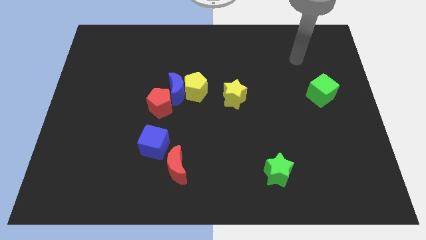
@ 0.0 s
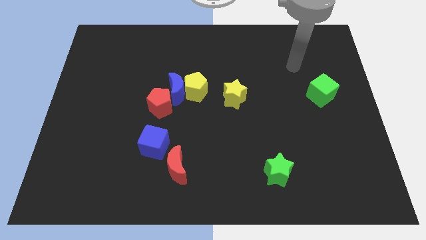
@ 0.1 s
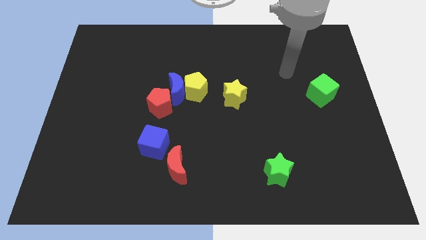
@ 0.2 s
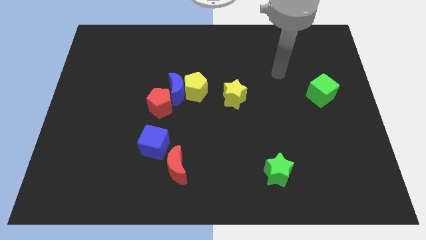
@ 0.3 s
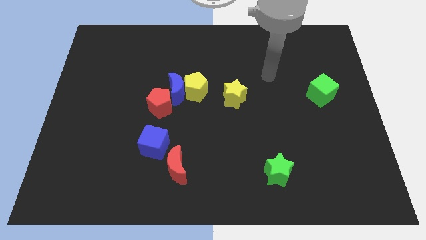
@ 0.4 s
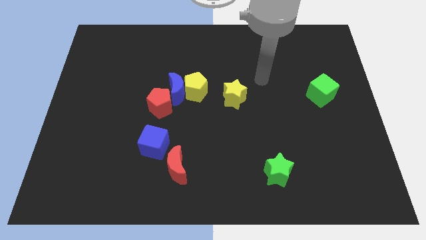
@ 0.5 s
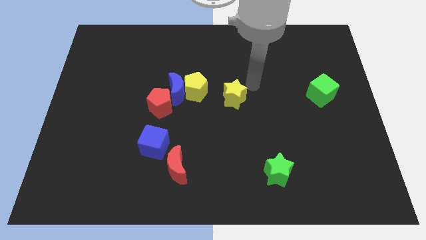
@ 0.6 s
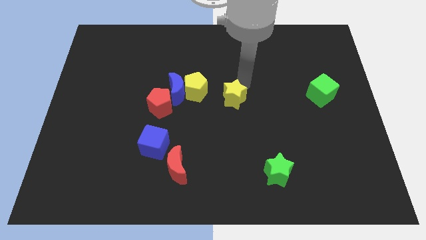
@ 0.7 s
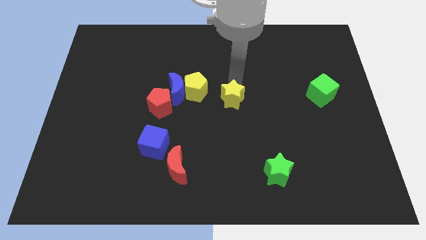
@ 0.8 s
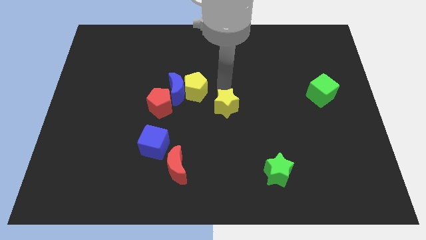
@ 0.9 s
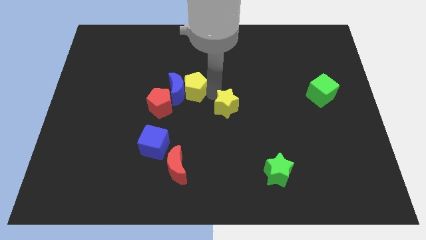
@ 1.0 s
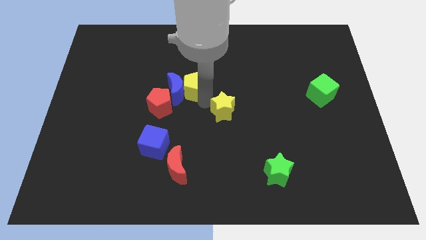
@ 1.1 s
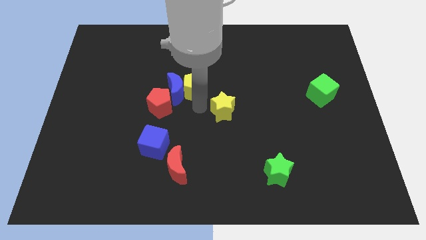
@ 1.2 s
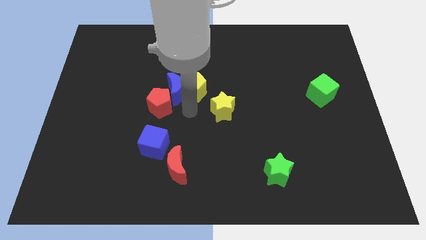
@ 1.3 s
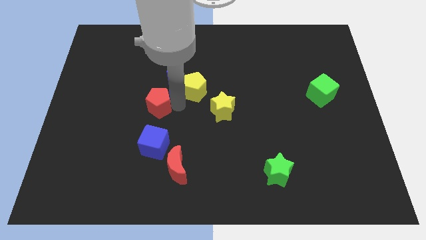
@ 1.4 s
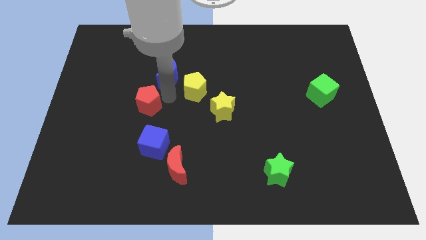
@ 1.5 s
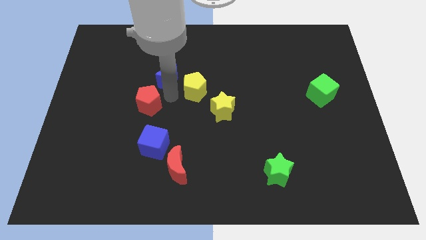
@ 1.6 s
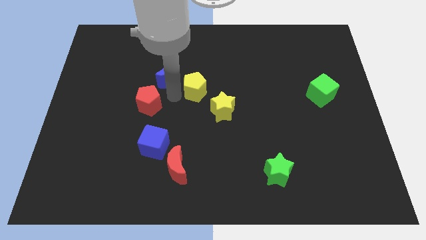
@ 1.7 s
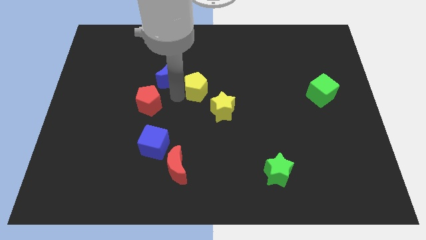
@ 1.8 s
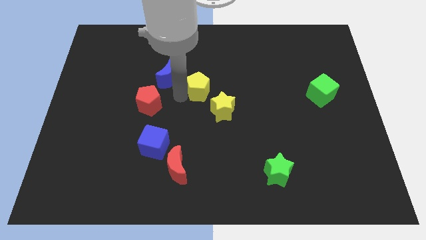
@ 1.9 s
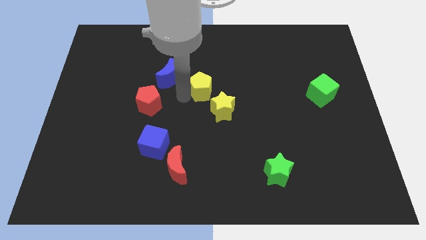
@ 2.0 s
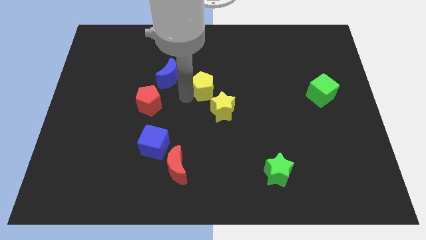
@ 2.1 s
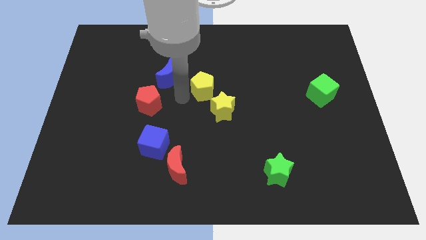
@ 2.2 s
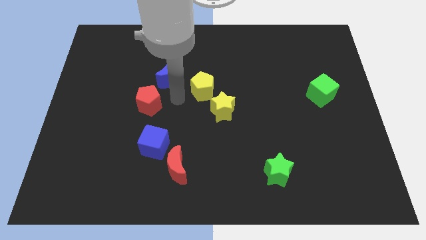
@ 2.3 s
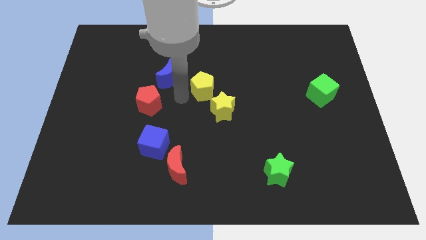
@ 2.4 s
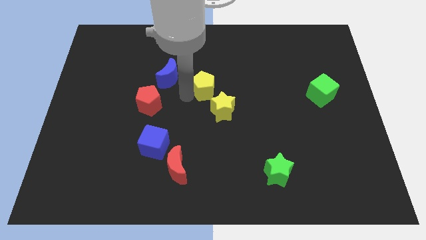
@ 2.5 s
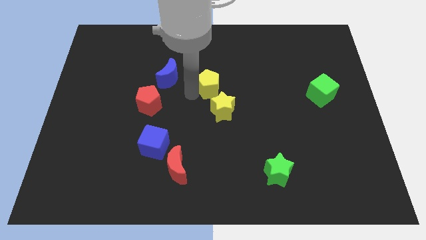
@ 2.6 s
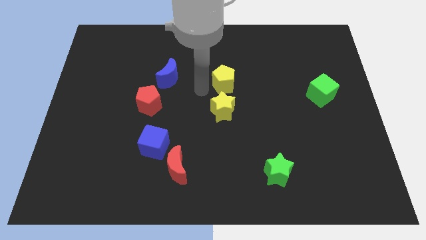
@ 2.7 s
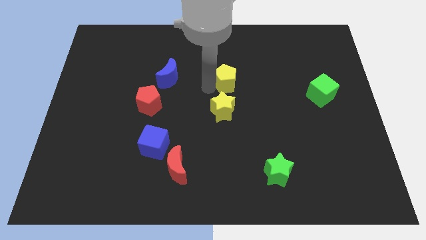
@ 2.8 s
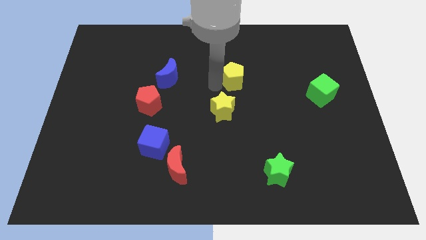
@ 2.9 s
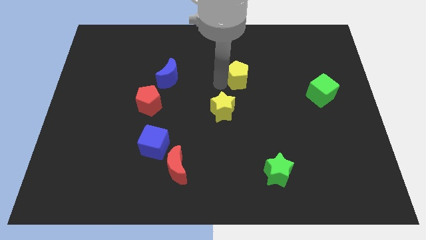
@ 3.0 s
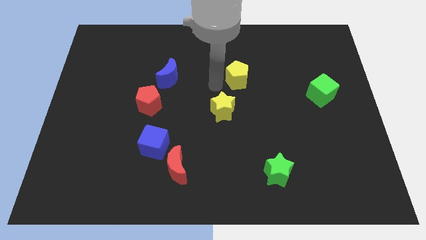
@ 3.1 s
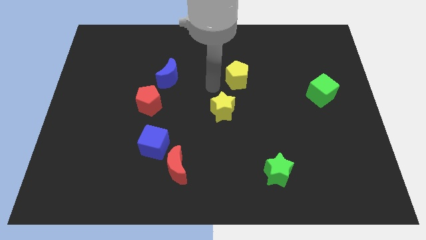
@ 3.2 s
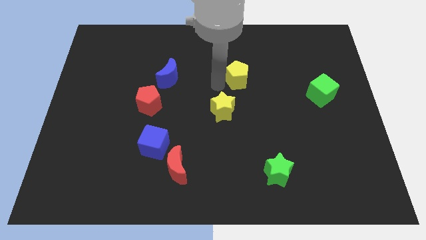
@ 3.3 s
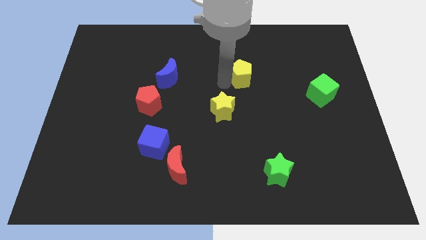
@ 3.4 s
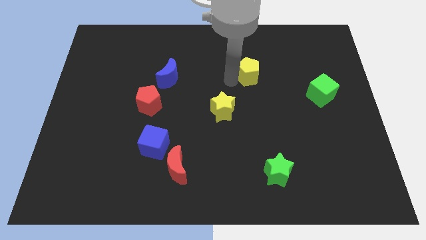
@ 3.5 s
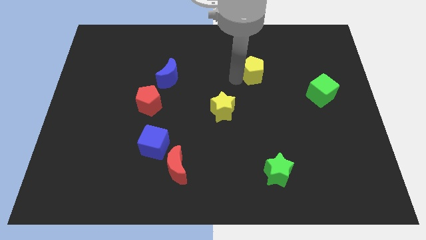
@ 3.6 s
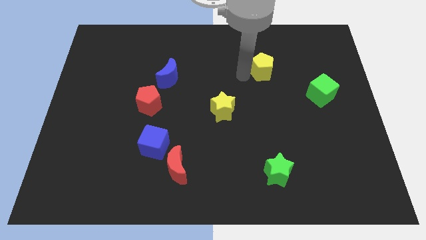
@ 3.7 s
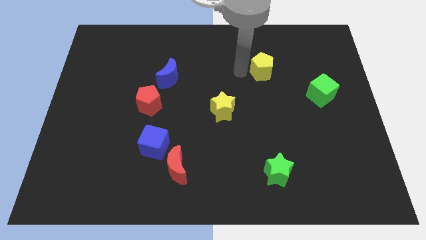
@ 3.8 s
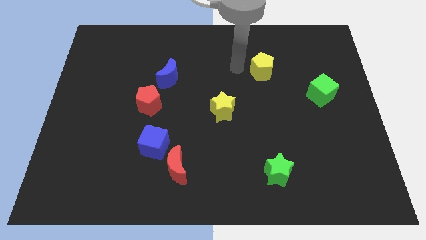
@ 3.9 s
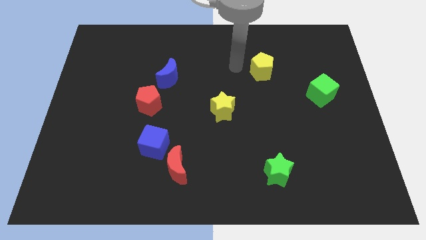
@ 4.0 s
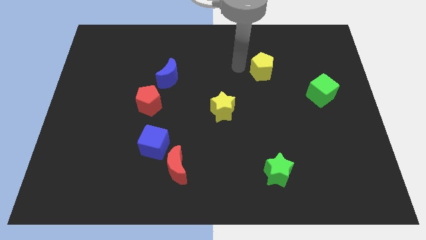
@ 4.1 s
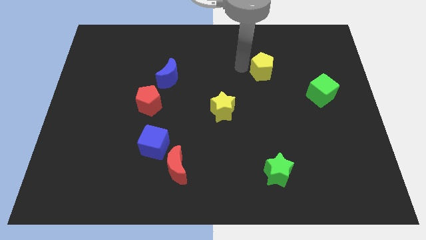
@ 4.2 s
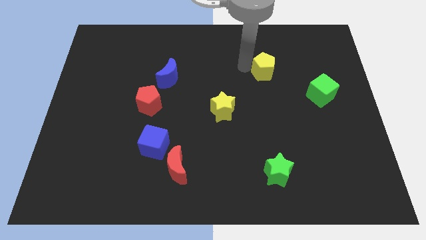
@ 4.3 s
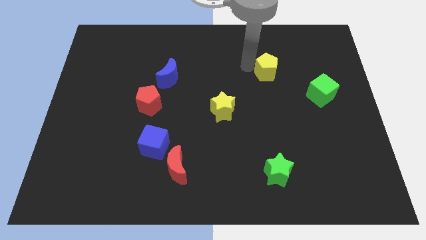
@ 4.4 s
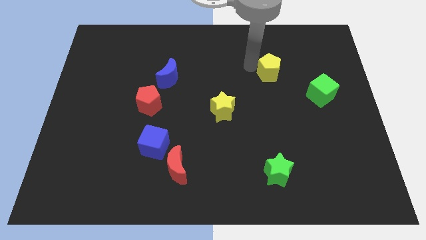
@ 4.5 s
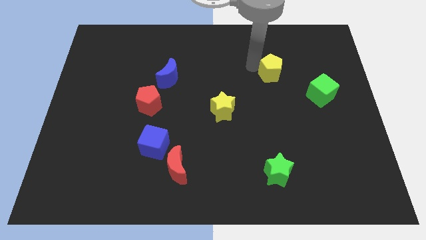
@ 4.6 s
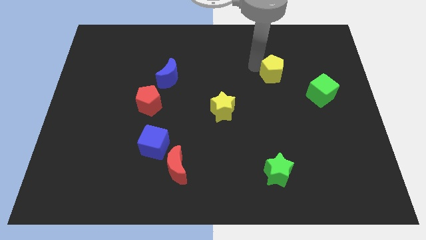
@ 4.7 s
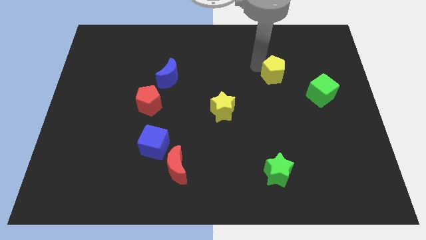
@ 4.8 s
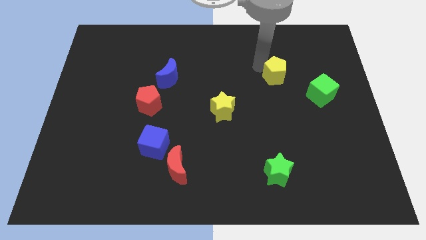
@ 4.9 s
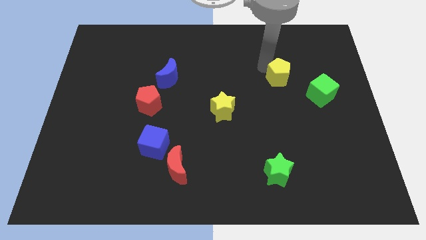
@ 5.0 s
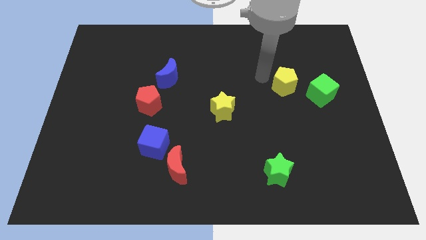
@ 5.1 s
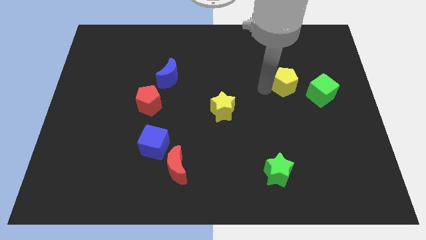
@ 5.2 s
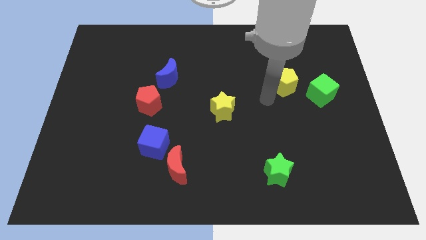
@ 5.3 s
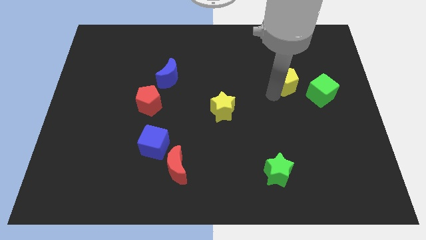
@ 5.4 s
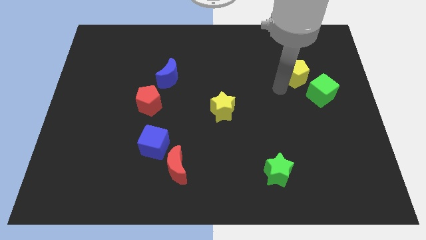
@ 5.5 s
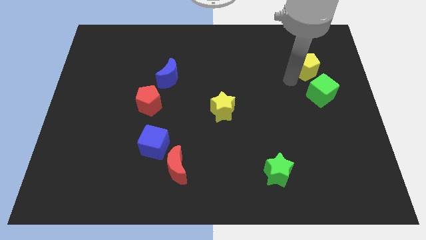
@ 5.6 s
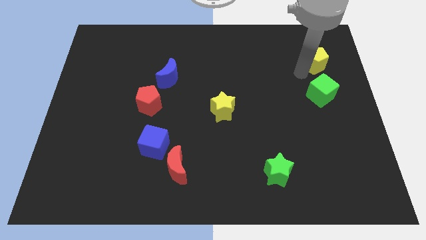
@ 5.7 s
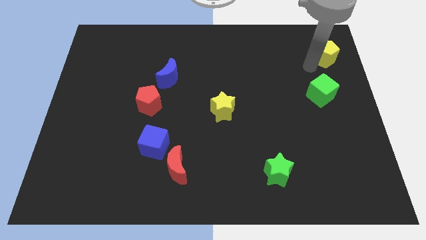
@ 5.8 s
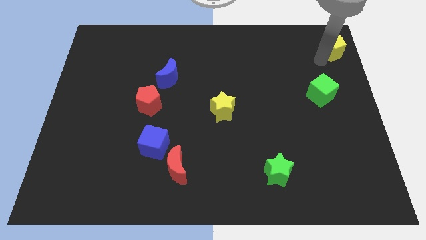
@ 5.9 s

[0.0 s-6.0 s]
push the yellow pentagon to the top right

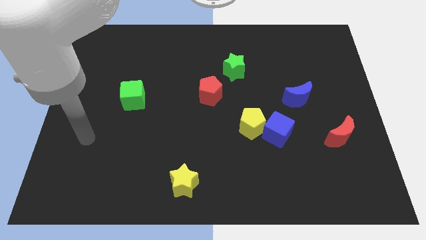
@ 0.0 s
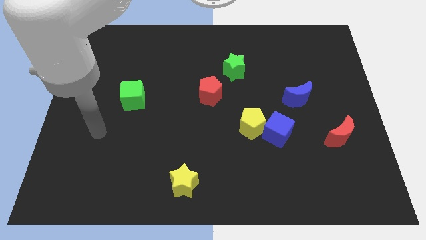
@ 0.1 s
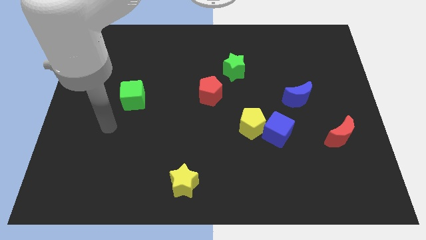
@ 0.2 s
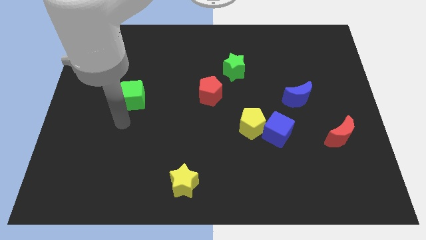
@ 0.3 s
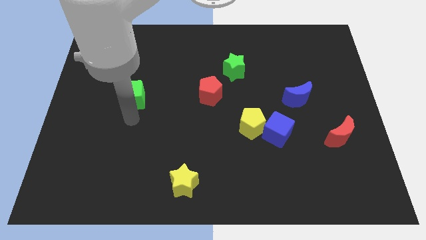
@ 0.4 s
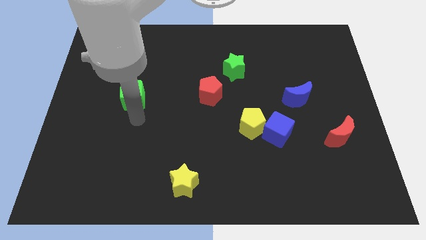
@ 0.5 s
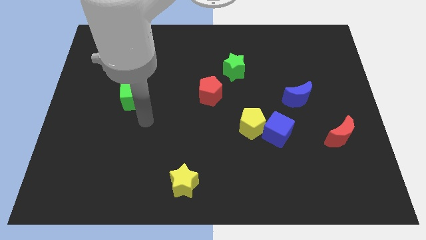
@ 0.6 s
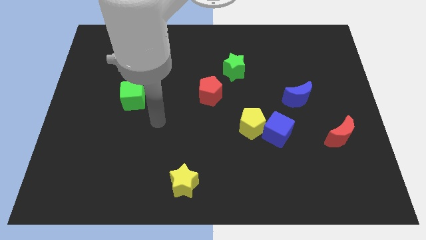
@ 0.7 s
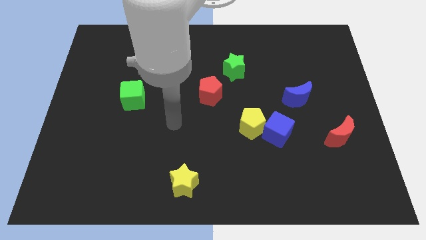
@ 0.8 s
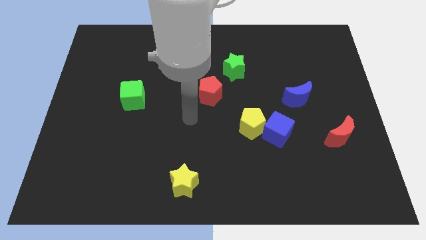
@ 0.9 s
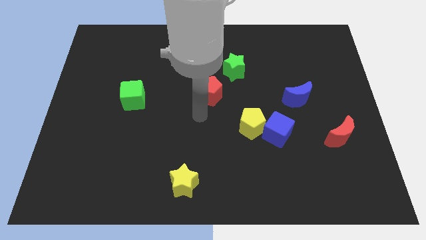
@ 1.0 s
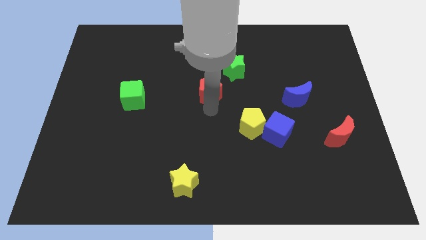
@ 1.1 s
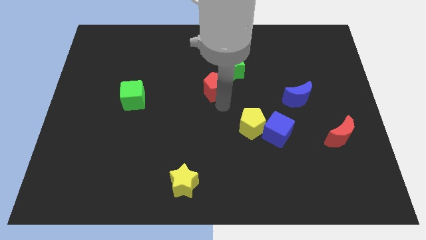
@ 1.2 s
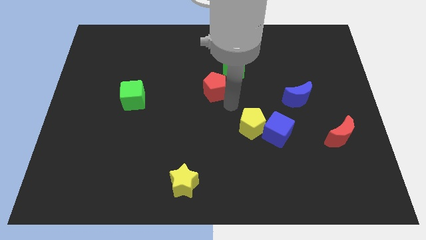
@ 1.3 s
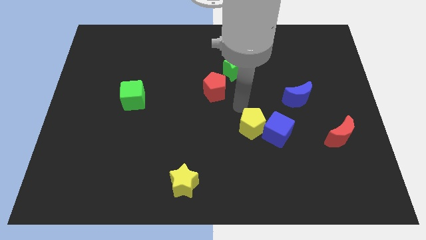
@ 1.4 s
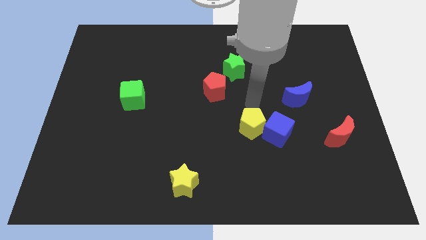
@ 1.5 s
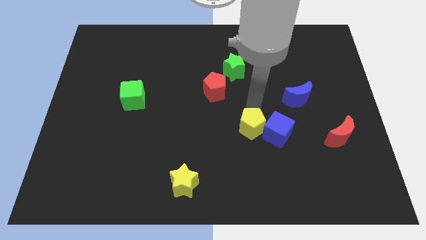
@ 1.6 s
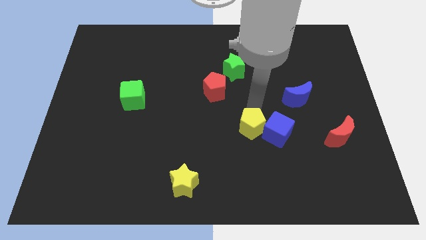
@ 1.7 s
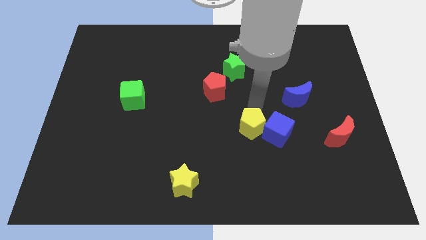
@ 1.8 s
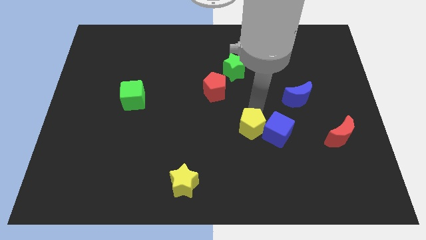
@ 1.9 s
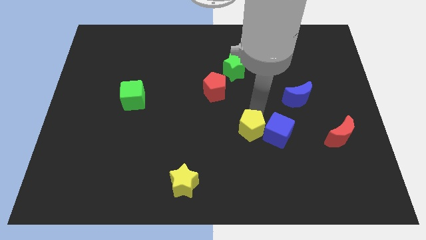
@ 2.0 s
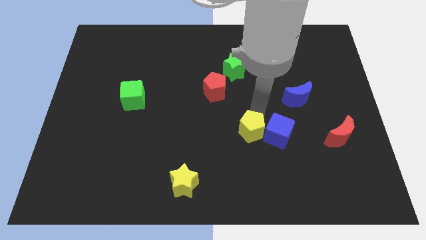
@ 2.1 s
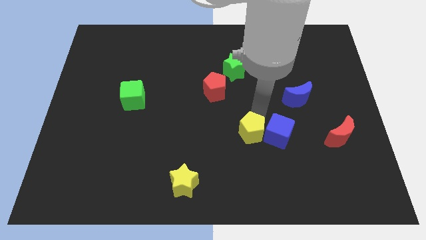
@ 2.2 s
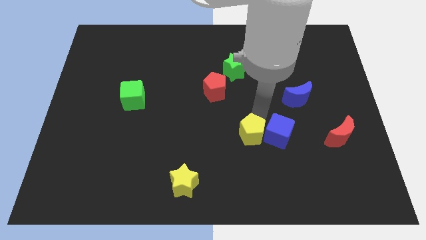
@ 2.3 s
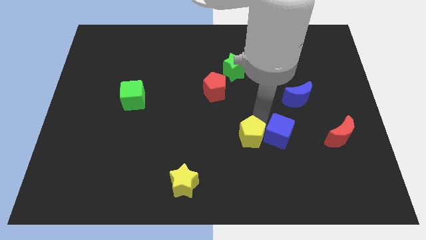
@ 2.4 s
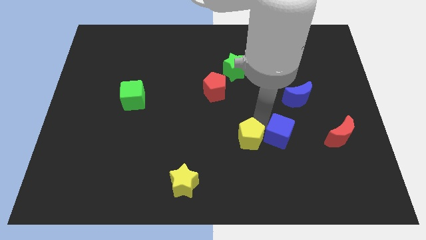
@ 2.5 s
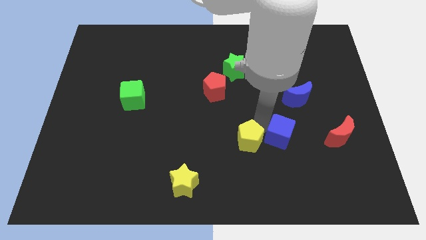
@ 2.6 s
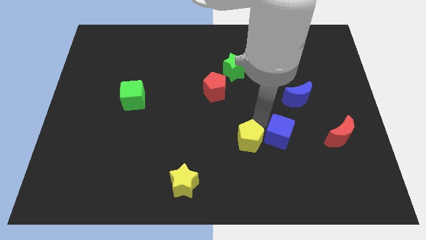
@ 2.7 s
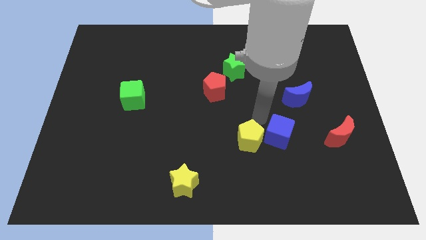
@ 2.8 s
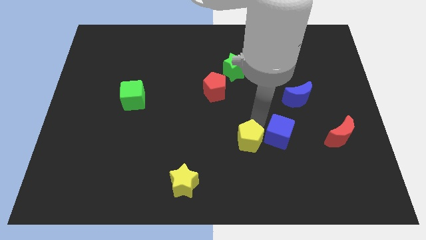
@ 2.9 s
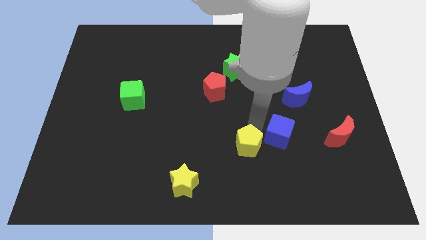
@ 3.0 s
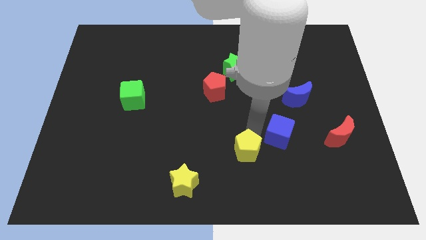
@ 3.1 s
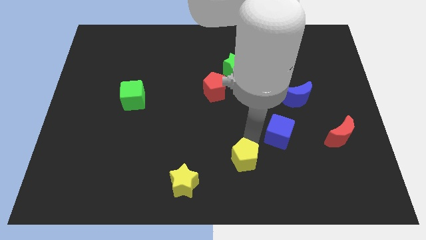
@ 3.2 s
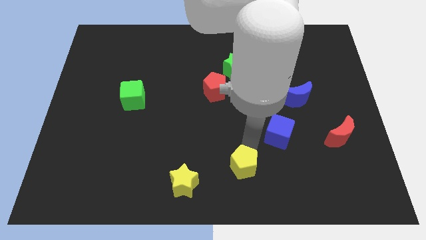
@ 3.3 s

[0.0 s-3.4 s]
push the yellow pentagon to the bottom side
